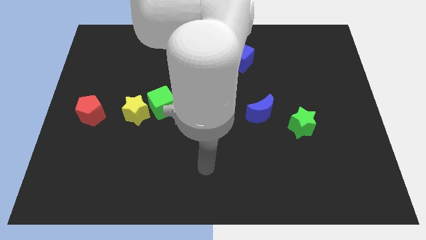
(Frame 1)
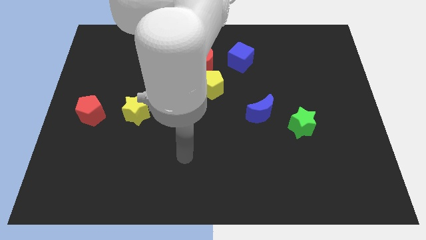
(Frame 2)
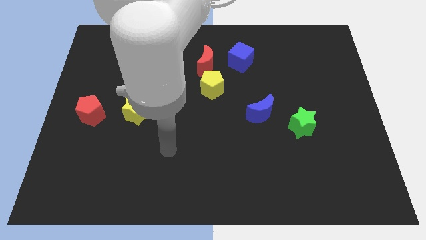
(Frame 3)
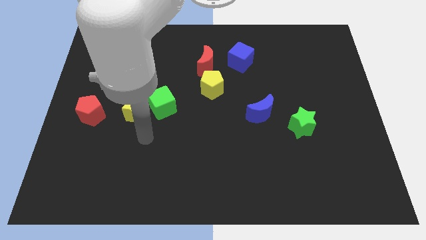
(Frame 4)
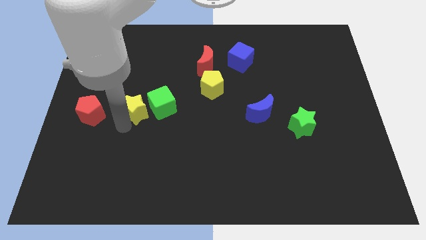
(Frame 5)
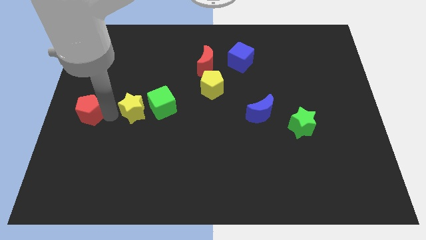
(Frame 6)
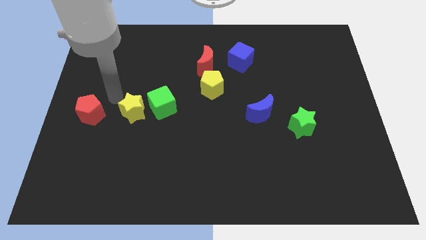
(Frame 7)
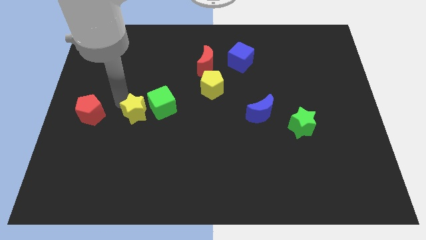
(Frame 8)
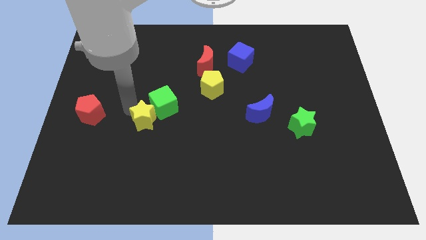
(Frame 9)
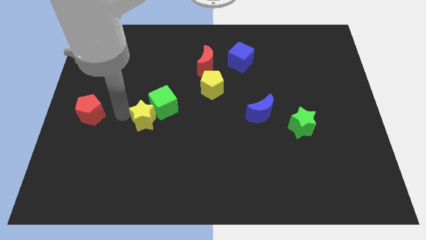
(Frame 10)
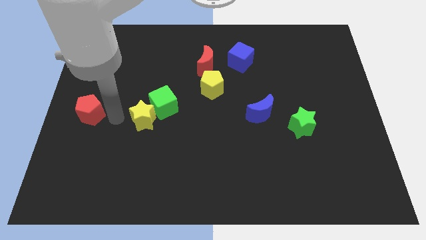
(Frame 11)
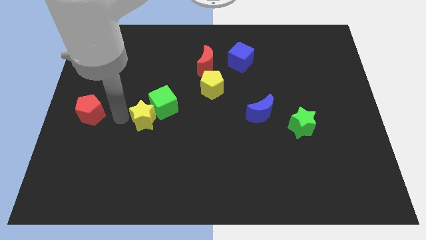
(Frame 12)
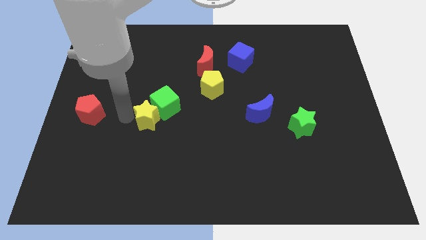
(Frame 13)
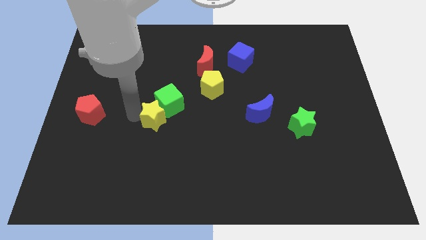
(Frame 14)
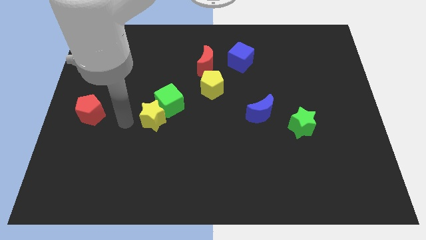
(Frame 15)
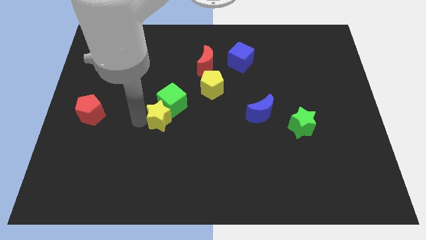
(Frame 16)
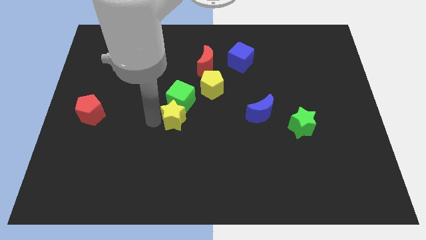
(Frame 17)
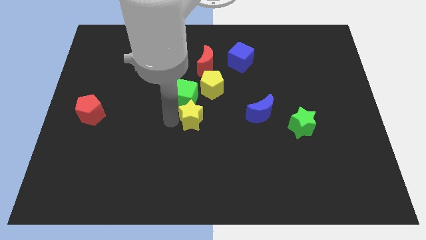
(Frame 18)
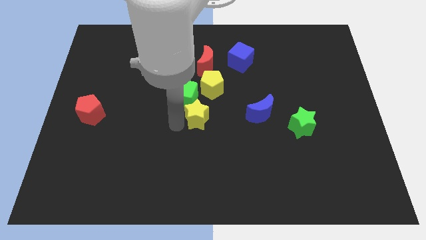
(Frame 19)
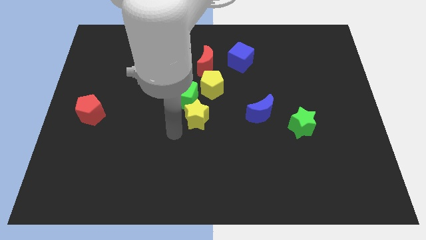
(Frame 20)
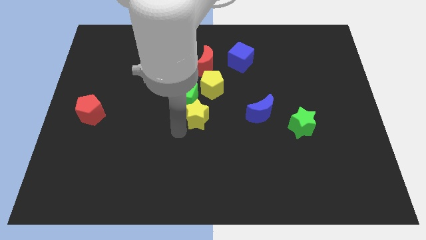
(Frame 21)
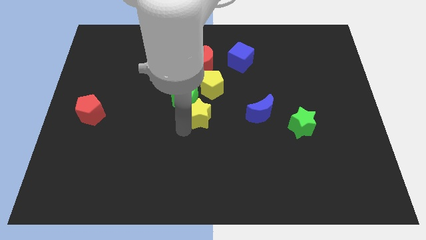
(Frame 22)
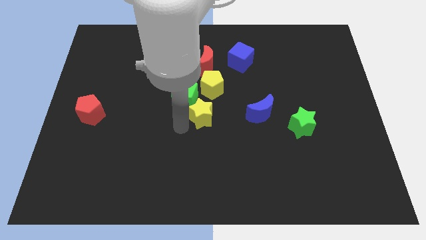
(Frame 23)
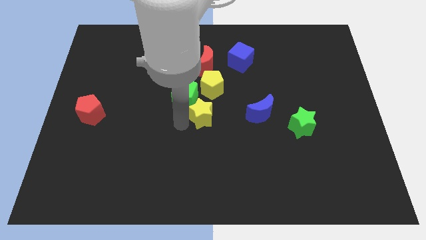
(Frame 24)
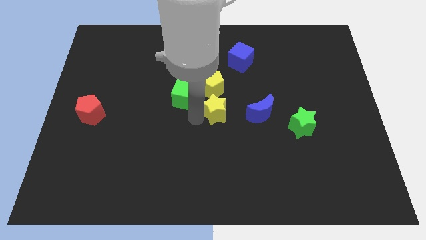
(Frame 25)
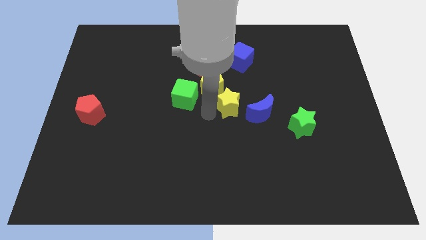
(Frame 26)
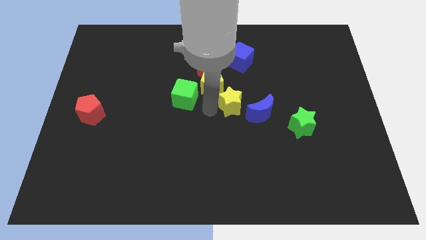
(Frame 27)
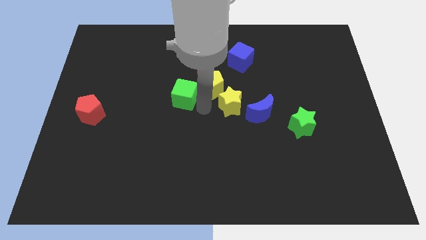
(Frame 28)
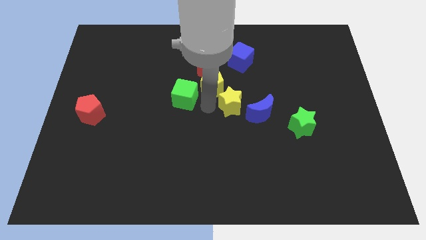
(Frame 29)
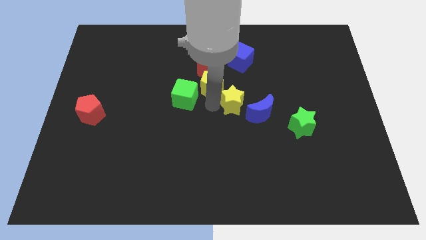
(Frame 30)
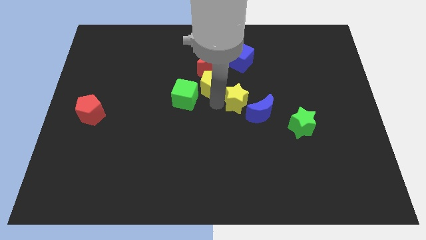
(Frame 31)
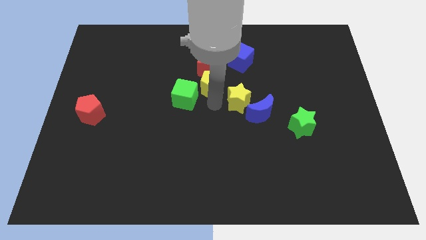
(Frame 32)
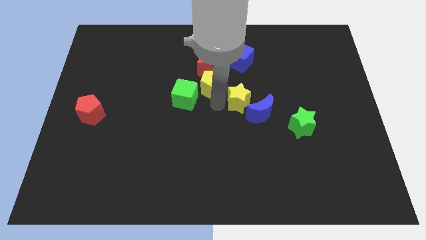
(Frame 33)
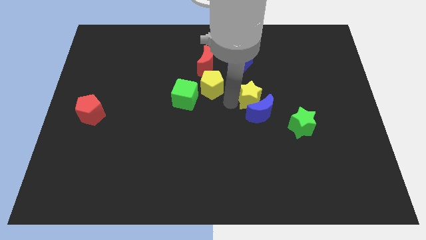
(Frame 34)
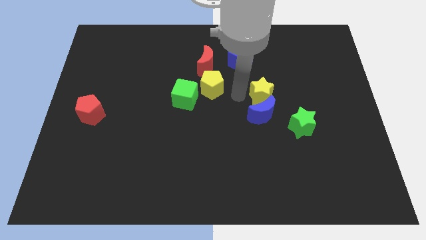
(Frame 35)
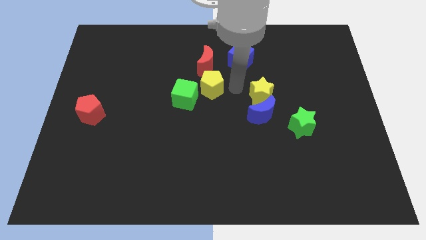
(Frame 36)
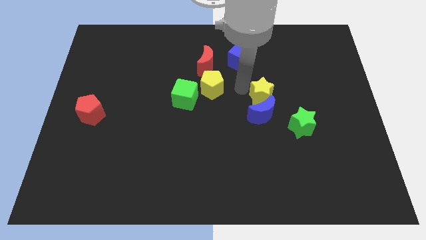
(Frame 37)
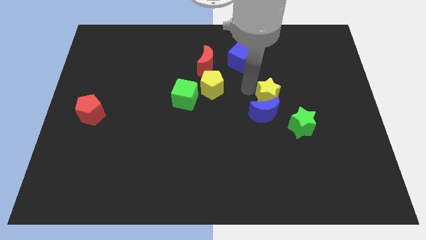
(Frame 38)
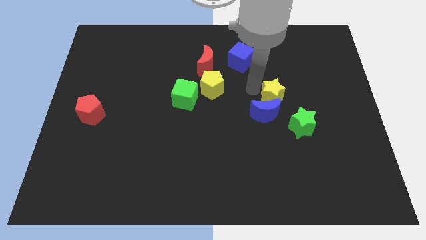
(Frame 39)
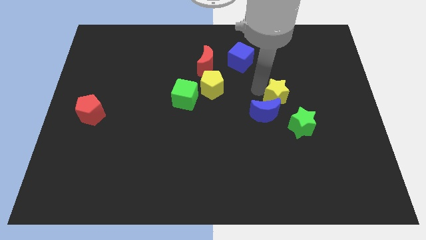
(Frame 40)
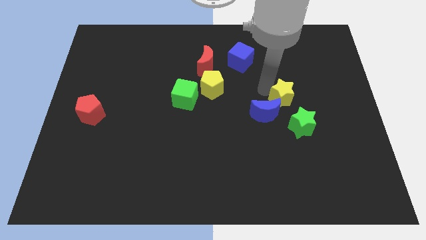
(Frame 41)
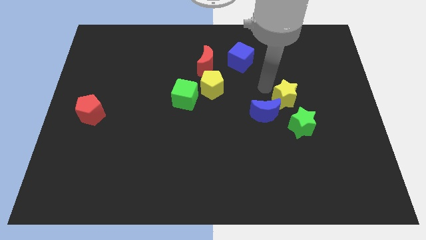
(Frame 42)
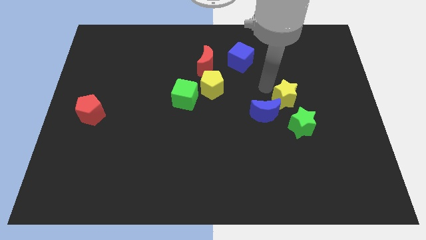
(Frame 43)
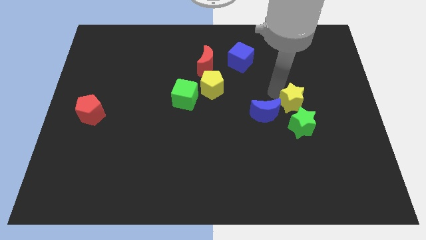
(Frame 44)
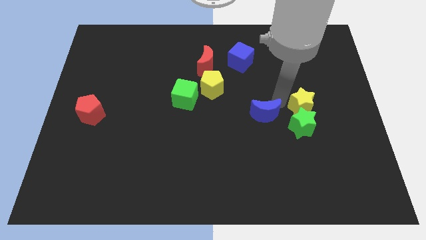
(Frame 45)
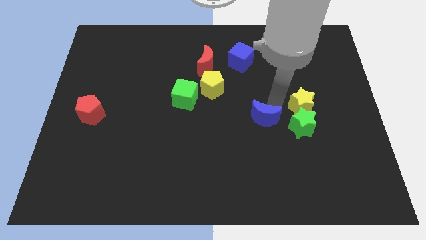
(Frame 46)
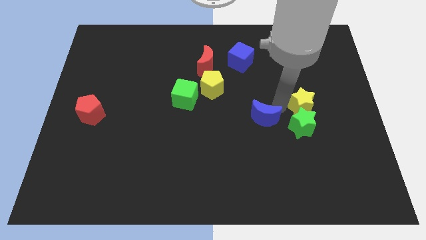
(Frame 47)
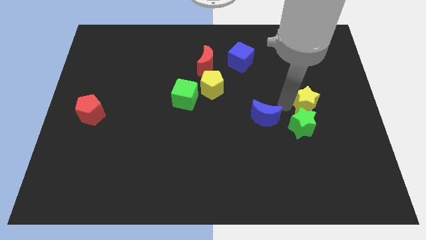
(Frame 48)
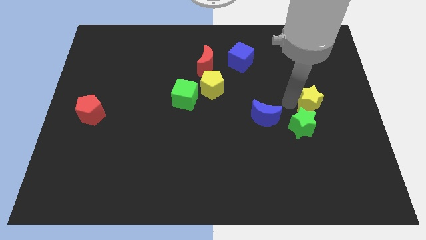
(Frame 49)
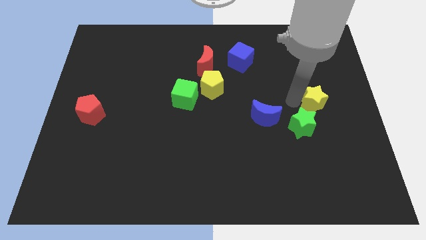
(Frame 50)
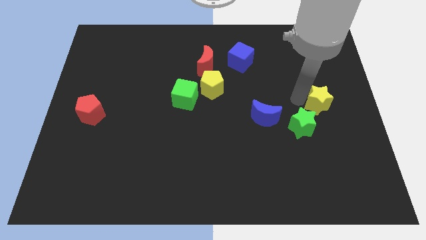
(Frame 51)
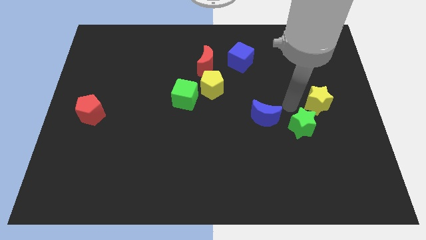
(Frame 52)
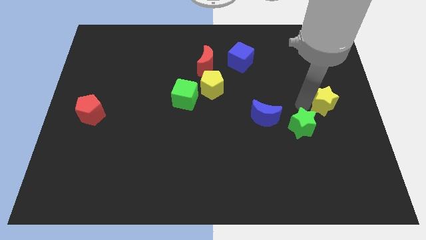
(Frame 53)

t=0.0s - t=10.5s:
push the yellow star to the right side
